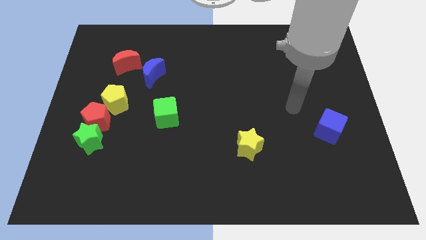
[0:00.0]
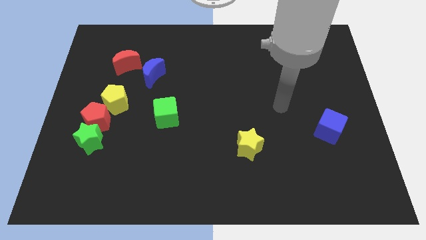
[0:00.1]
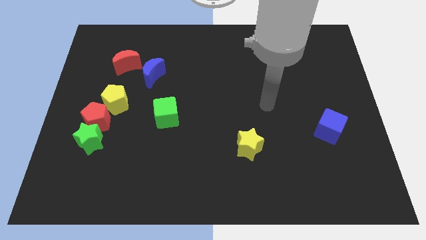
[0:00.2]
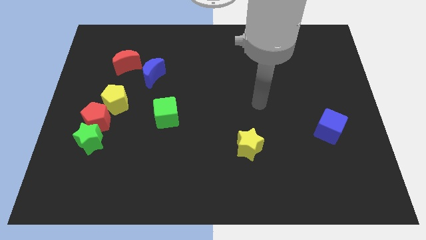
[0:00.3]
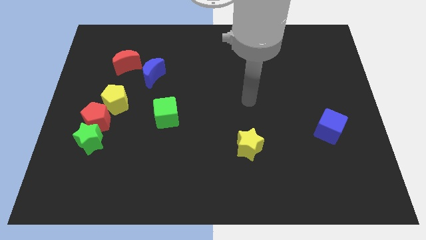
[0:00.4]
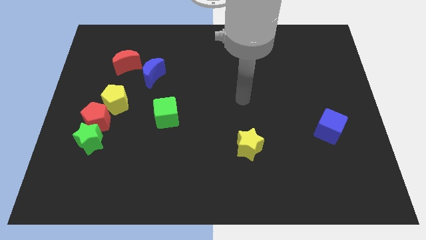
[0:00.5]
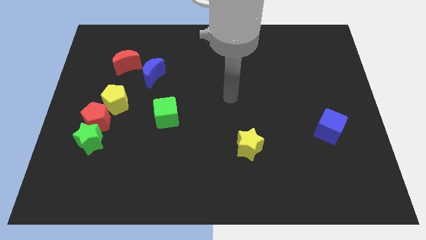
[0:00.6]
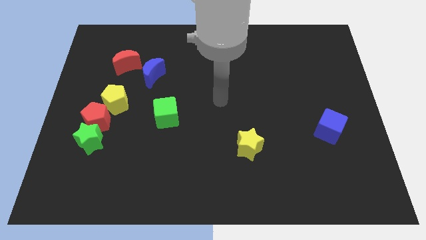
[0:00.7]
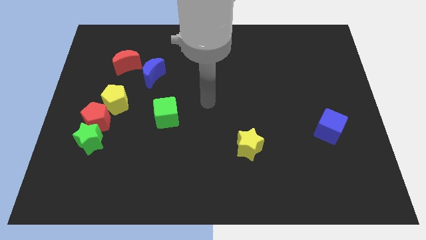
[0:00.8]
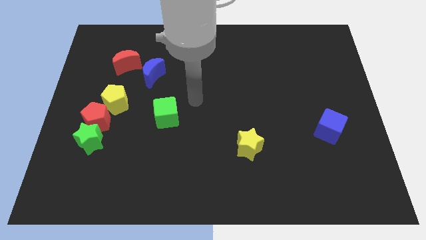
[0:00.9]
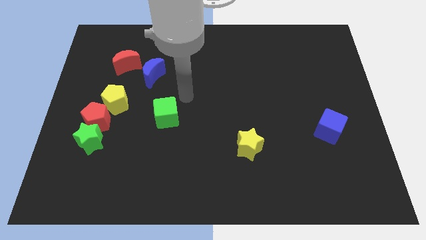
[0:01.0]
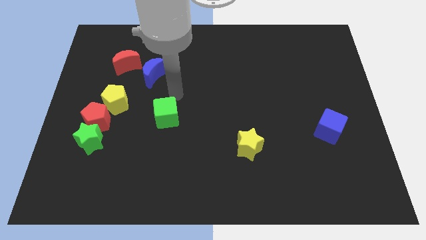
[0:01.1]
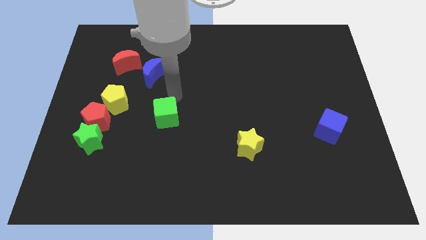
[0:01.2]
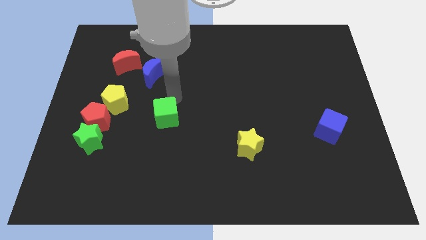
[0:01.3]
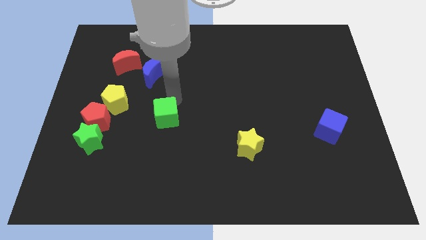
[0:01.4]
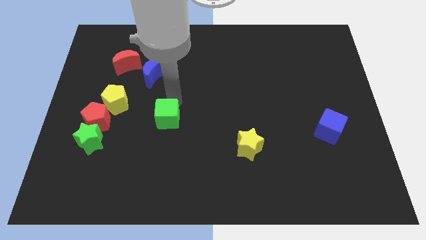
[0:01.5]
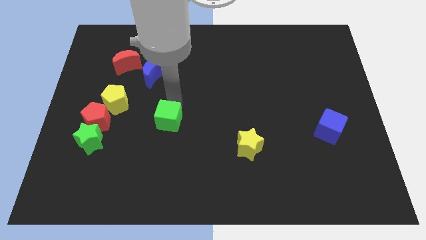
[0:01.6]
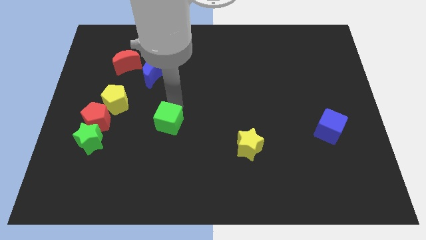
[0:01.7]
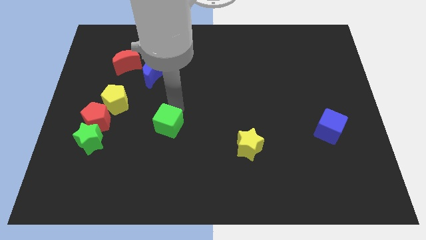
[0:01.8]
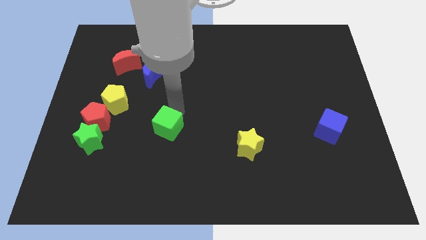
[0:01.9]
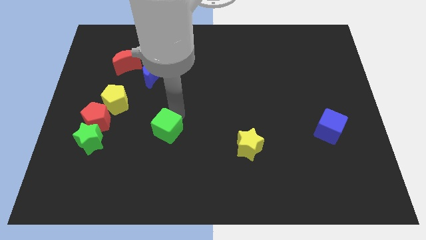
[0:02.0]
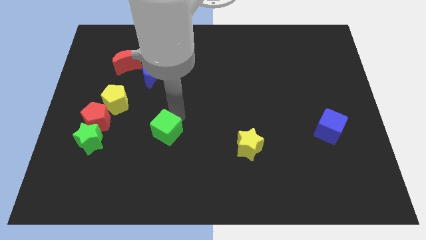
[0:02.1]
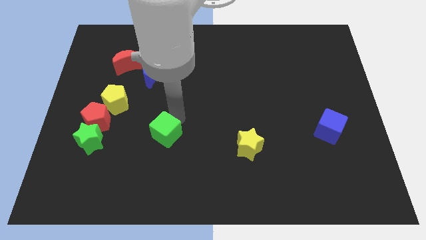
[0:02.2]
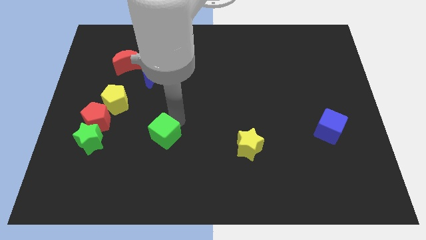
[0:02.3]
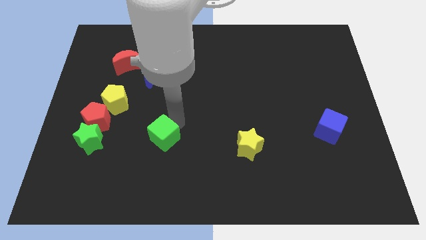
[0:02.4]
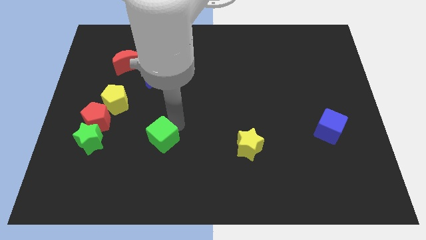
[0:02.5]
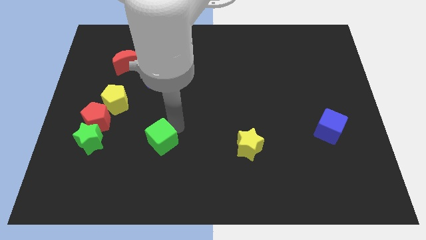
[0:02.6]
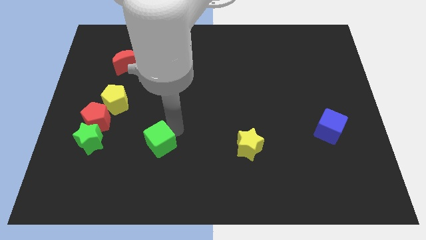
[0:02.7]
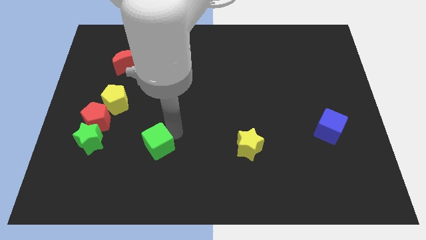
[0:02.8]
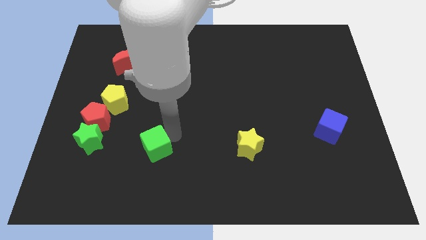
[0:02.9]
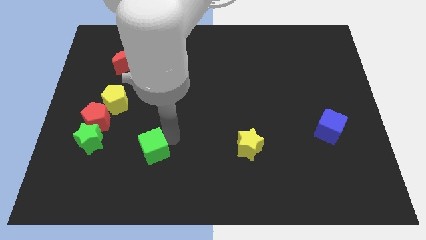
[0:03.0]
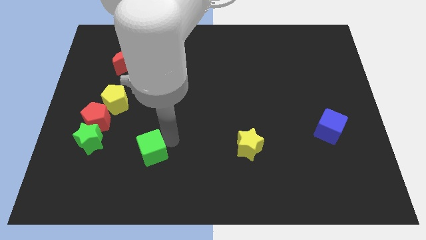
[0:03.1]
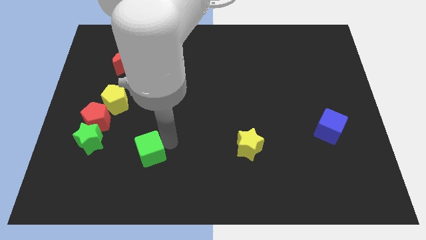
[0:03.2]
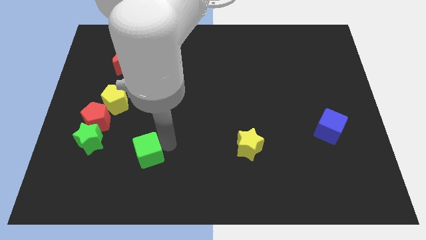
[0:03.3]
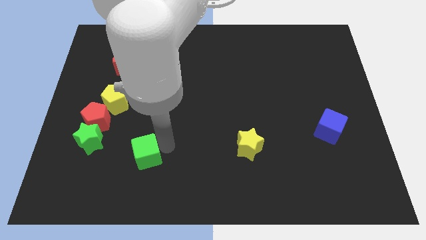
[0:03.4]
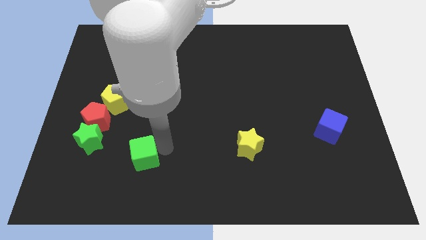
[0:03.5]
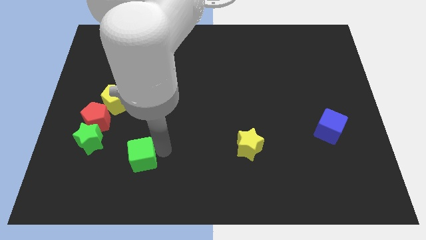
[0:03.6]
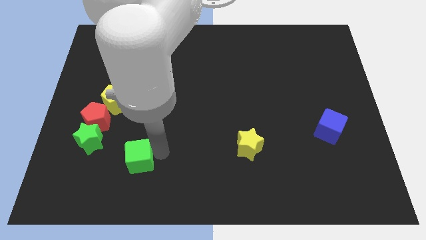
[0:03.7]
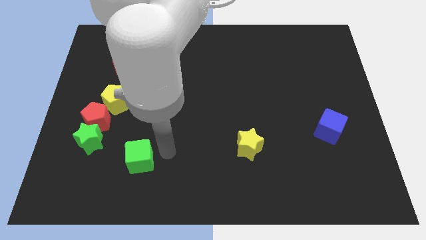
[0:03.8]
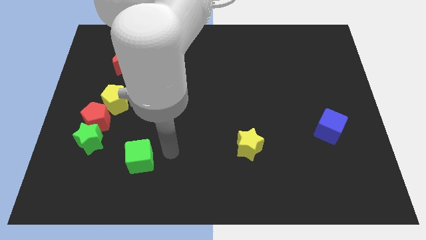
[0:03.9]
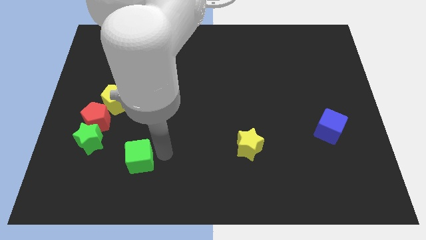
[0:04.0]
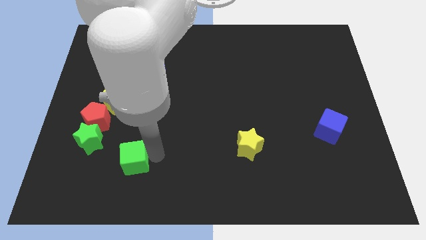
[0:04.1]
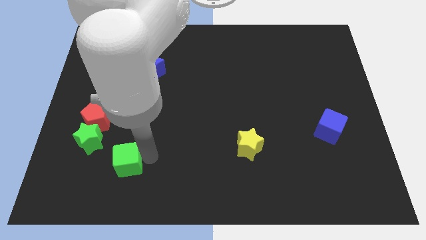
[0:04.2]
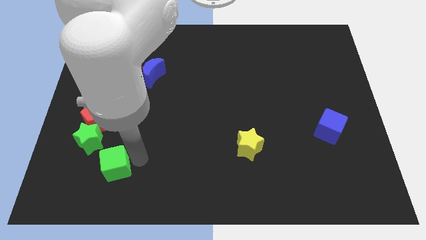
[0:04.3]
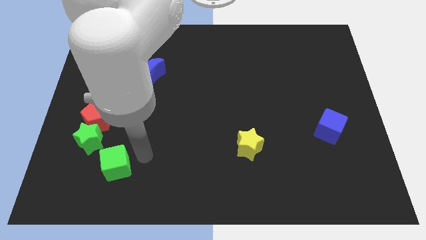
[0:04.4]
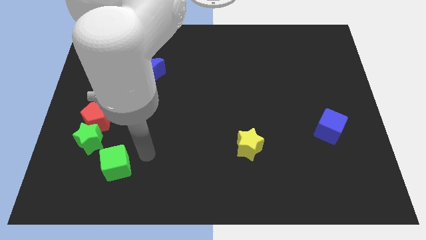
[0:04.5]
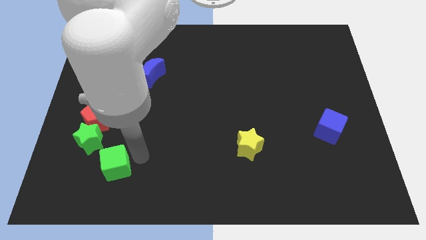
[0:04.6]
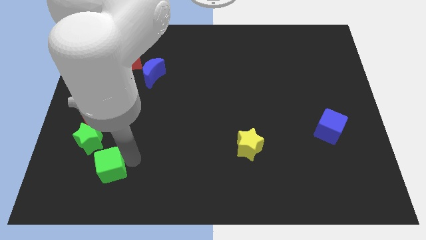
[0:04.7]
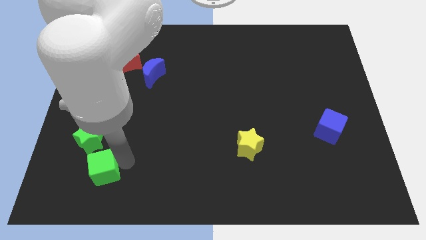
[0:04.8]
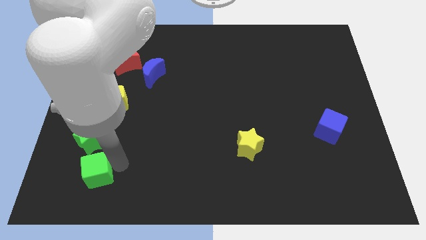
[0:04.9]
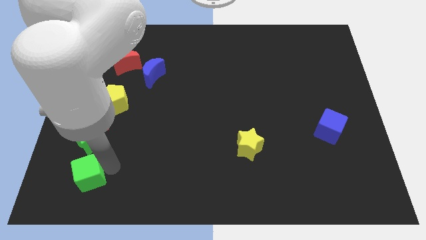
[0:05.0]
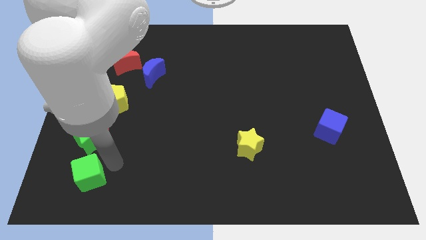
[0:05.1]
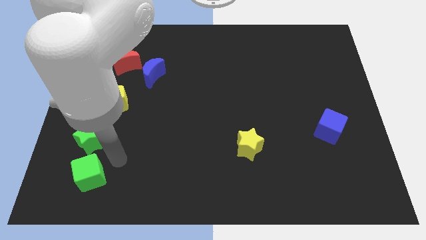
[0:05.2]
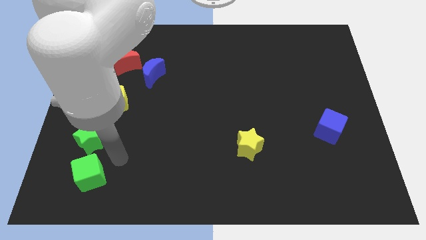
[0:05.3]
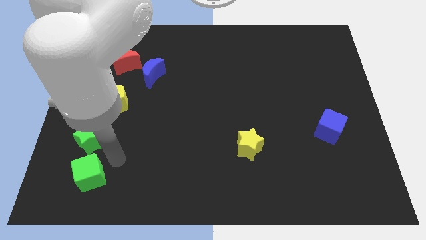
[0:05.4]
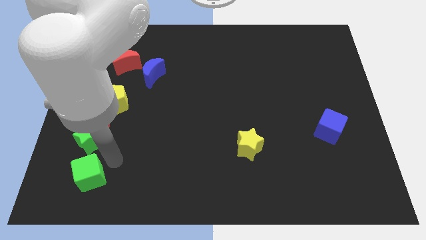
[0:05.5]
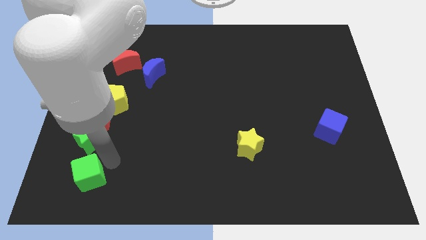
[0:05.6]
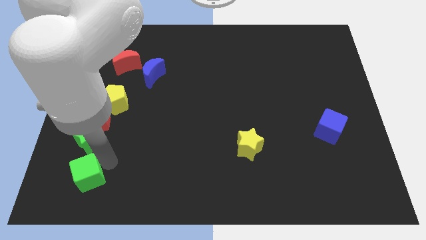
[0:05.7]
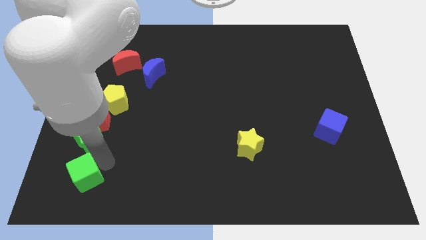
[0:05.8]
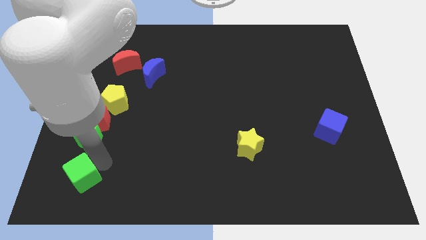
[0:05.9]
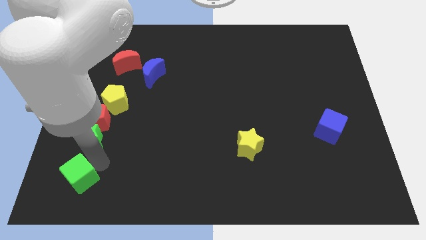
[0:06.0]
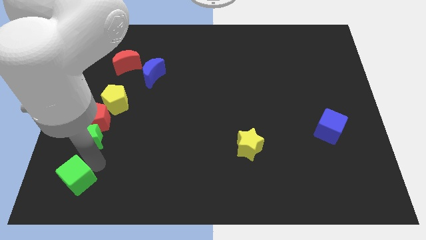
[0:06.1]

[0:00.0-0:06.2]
push the green cube to the bottom left of the board

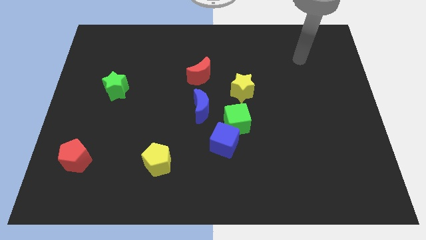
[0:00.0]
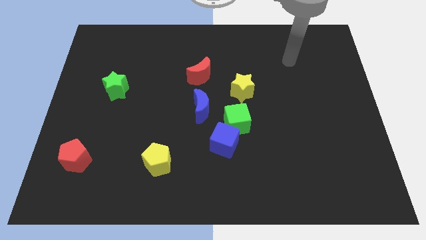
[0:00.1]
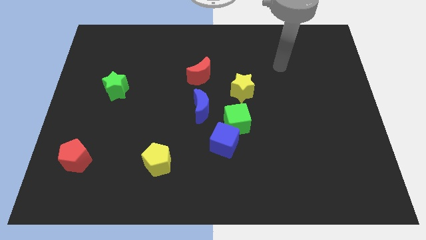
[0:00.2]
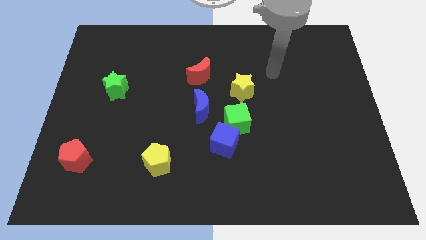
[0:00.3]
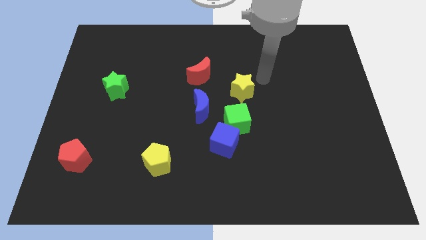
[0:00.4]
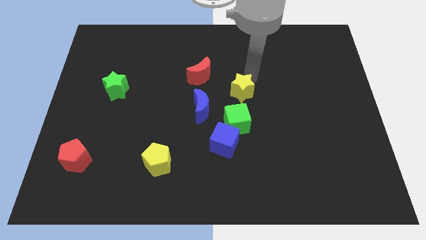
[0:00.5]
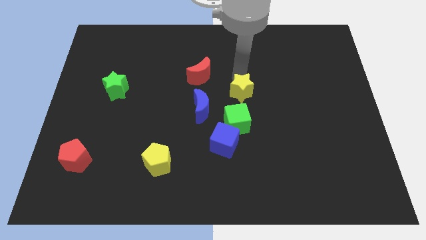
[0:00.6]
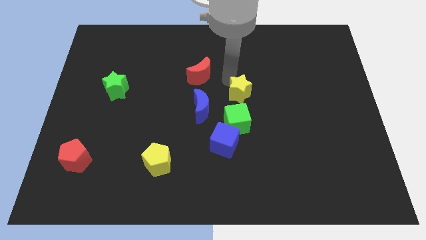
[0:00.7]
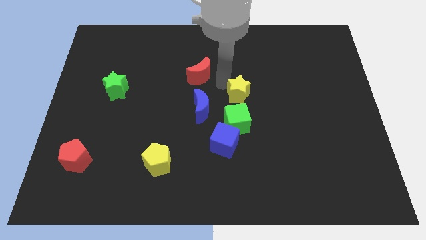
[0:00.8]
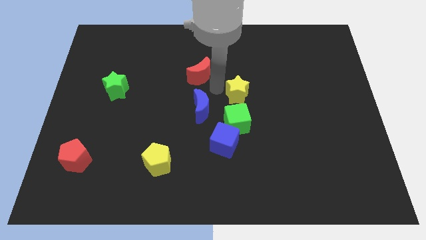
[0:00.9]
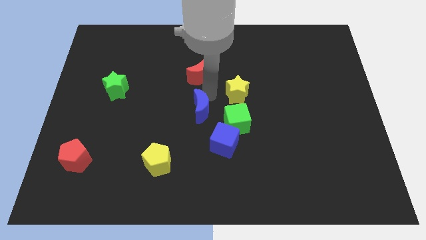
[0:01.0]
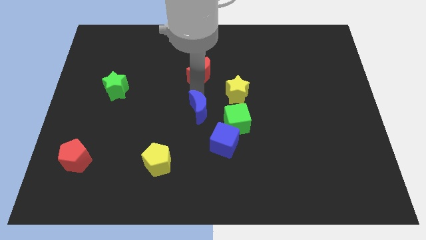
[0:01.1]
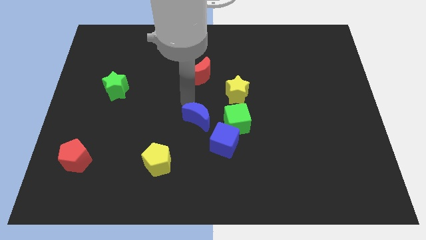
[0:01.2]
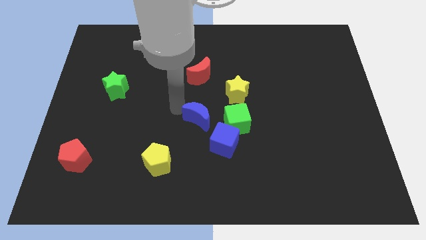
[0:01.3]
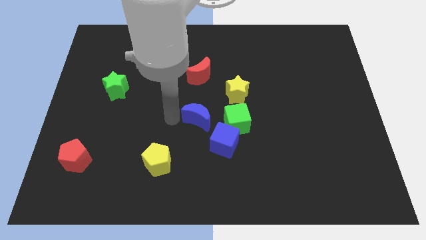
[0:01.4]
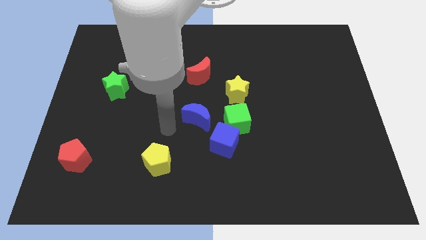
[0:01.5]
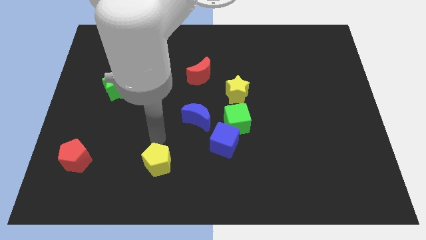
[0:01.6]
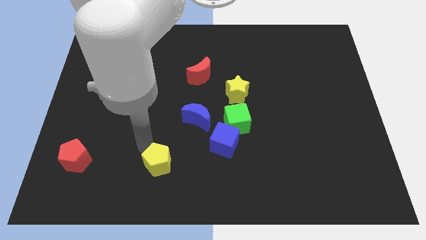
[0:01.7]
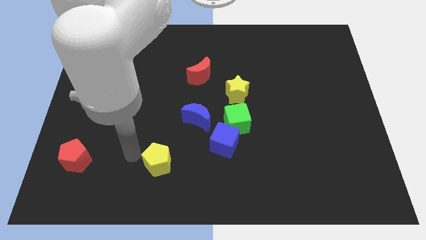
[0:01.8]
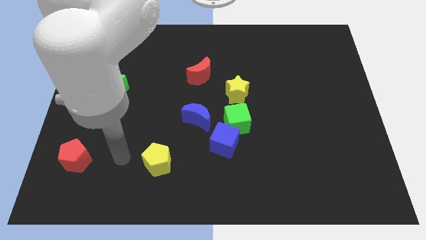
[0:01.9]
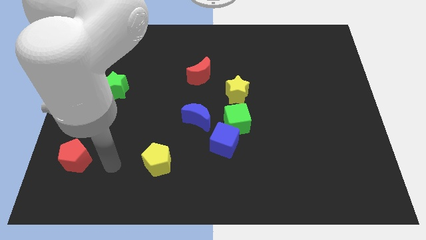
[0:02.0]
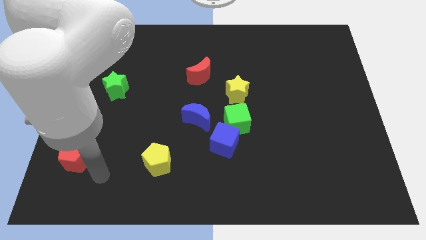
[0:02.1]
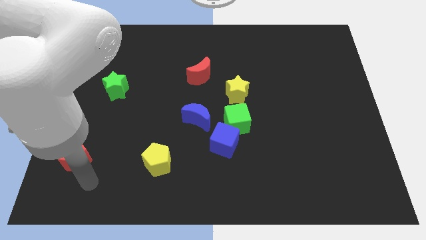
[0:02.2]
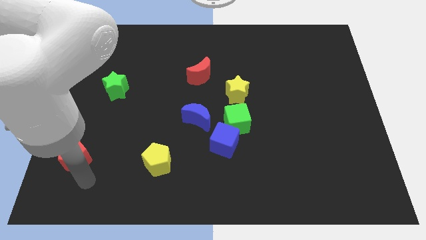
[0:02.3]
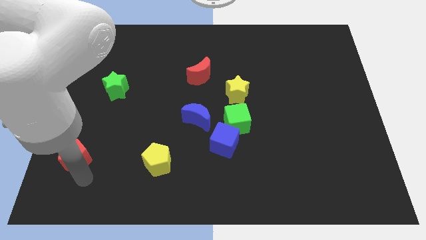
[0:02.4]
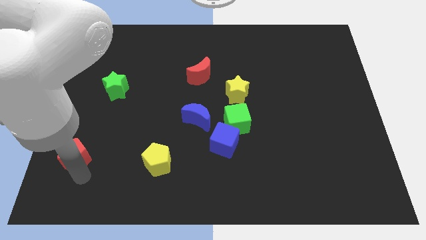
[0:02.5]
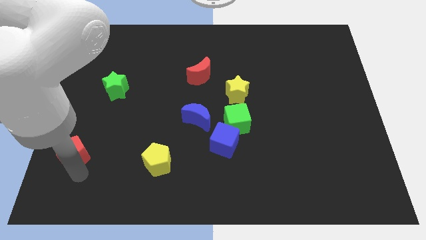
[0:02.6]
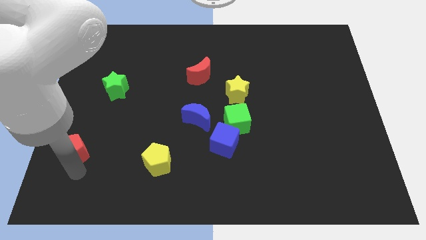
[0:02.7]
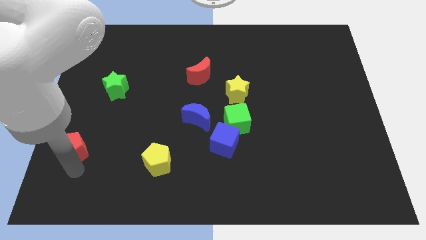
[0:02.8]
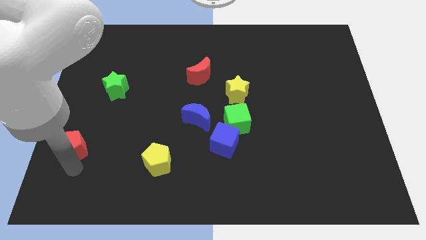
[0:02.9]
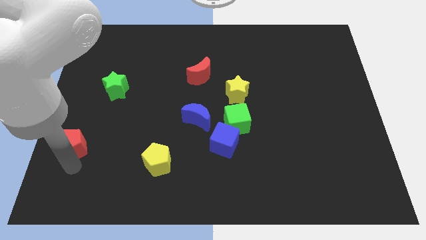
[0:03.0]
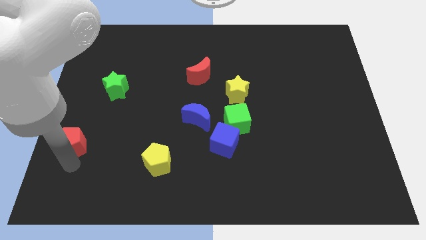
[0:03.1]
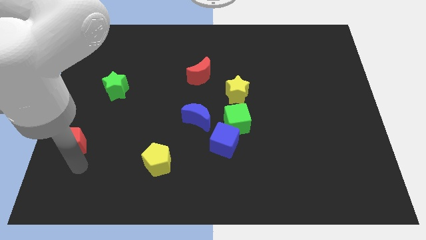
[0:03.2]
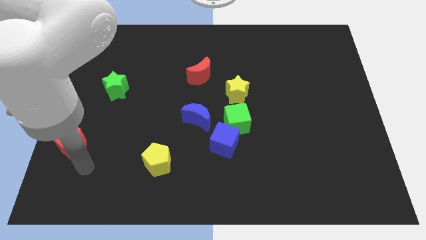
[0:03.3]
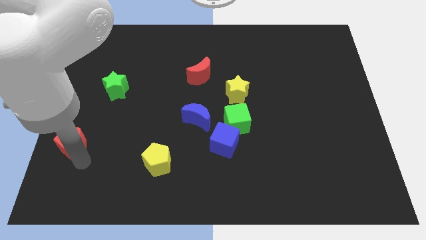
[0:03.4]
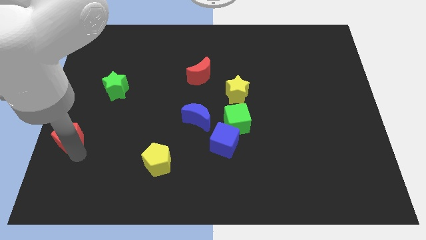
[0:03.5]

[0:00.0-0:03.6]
slide the red pentagon to the left side
